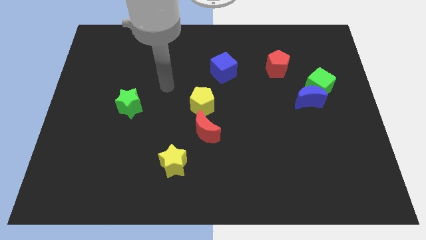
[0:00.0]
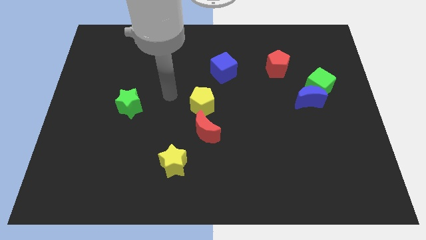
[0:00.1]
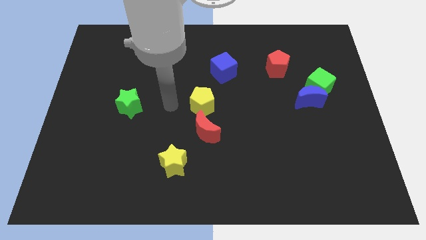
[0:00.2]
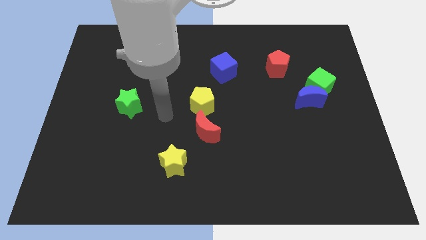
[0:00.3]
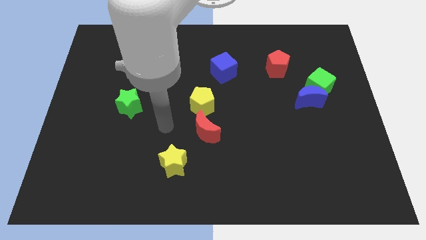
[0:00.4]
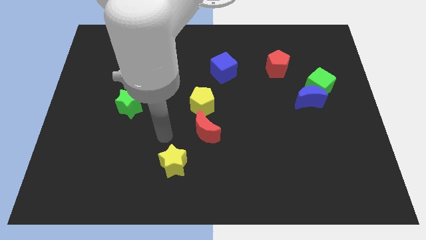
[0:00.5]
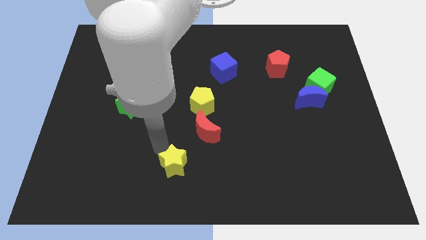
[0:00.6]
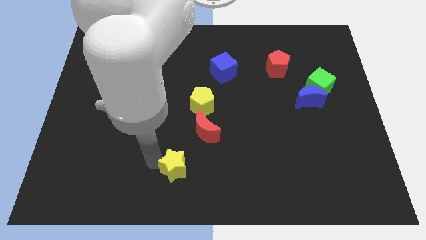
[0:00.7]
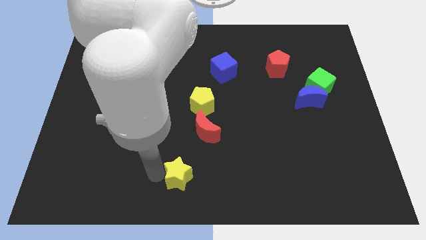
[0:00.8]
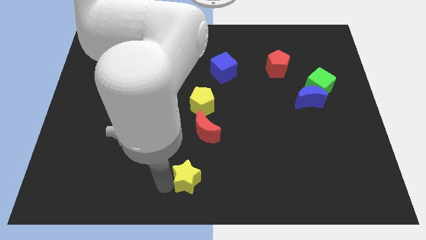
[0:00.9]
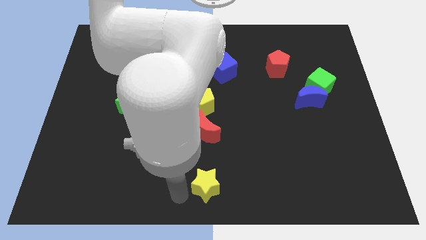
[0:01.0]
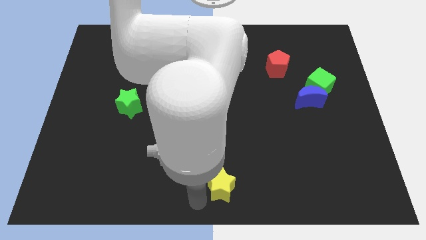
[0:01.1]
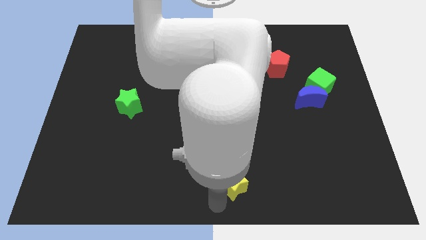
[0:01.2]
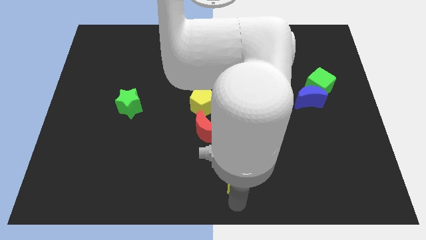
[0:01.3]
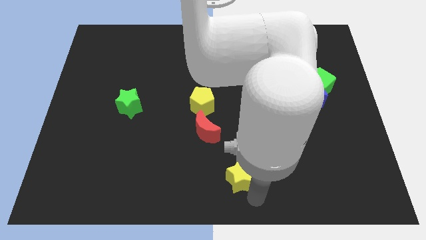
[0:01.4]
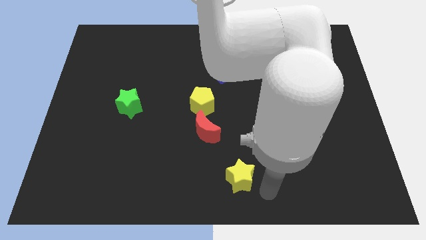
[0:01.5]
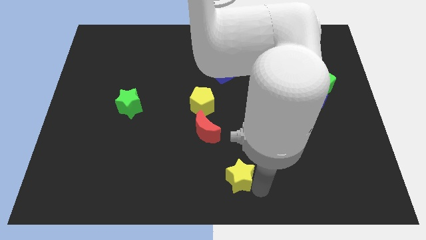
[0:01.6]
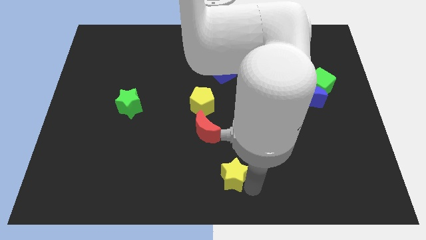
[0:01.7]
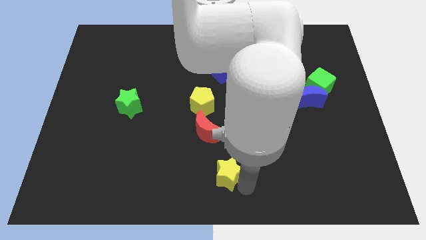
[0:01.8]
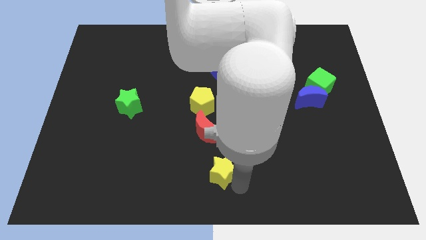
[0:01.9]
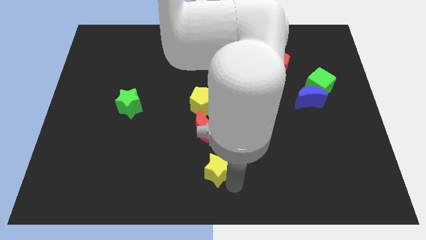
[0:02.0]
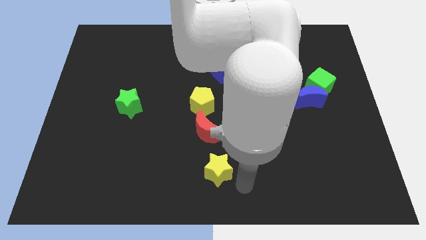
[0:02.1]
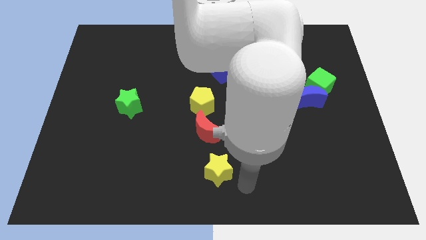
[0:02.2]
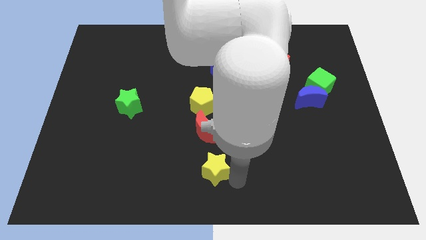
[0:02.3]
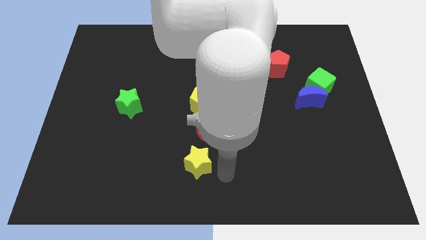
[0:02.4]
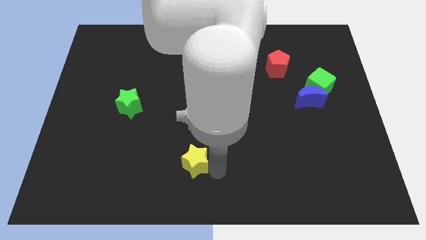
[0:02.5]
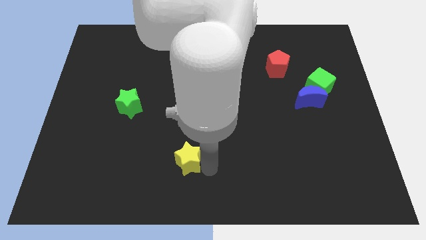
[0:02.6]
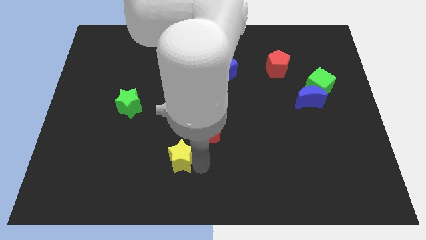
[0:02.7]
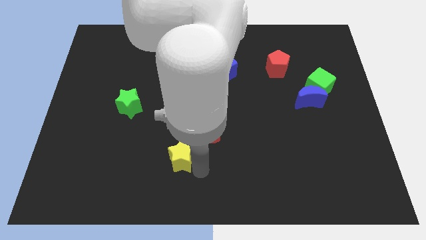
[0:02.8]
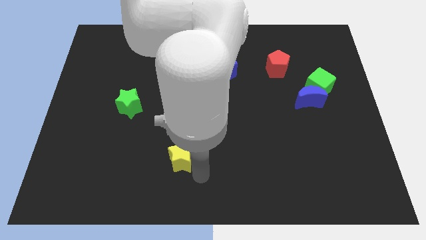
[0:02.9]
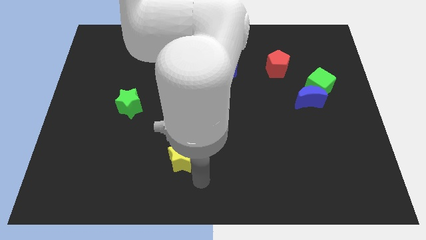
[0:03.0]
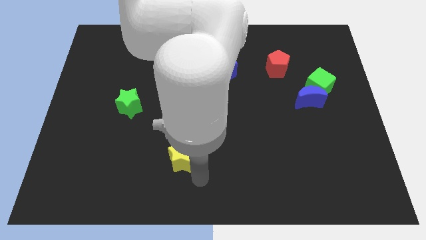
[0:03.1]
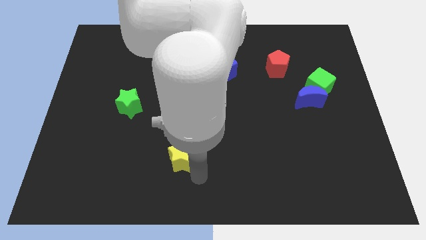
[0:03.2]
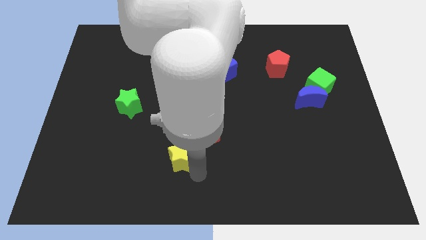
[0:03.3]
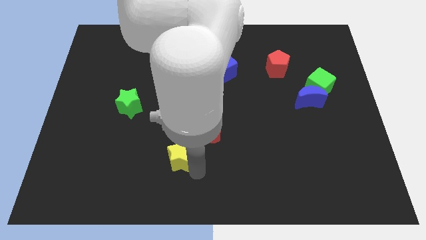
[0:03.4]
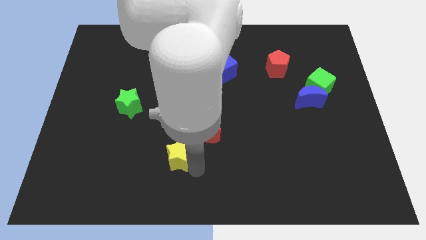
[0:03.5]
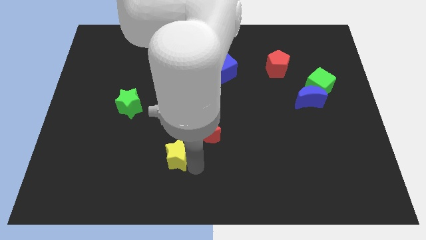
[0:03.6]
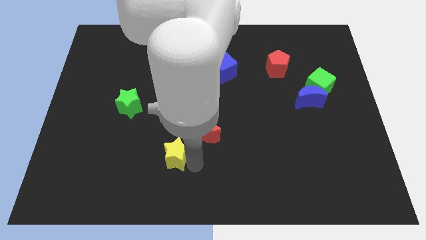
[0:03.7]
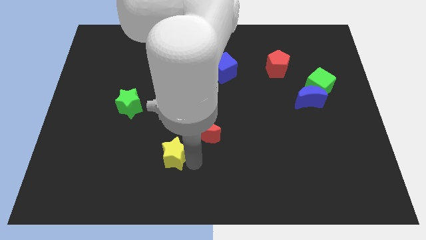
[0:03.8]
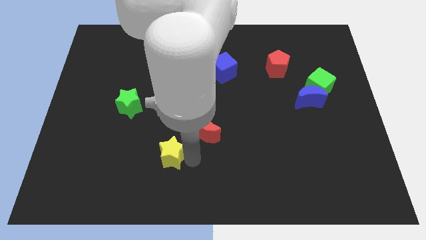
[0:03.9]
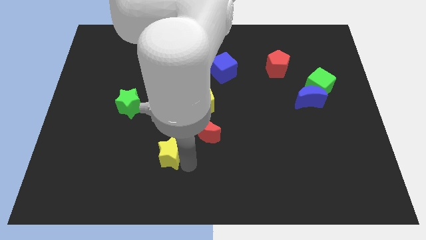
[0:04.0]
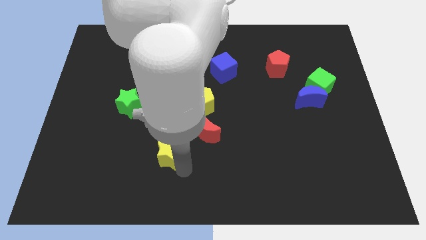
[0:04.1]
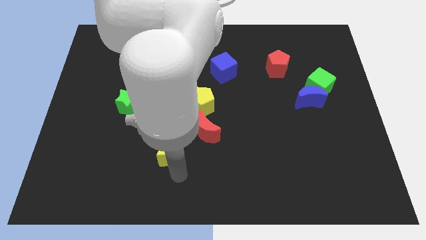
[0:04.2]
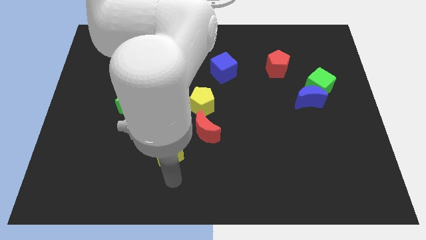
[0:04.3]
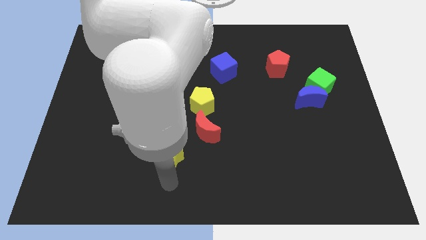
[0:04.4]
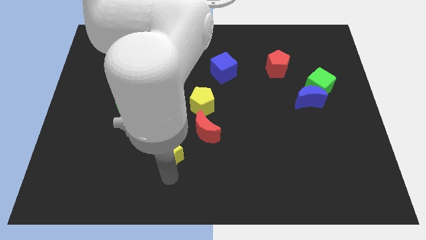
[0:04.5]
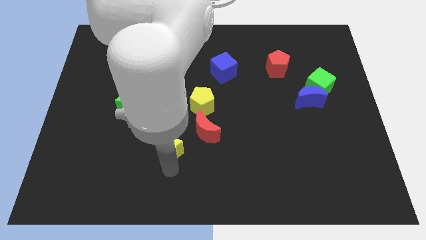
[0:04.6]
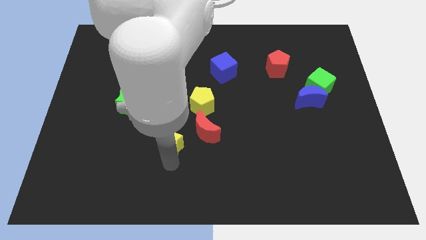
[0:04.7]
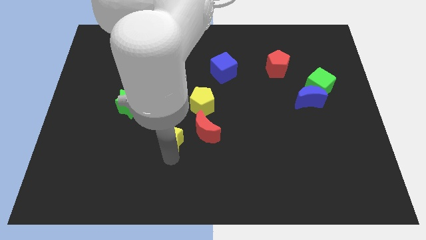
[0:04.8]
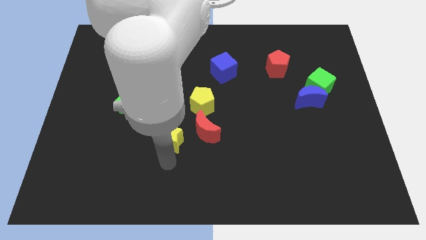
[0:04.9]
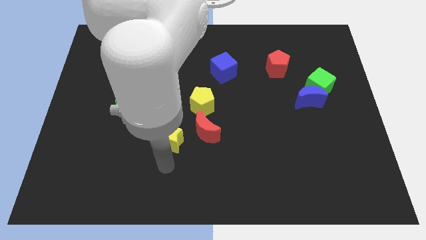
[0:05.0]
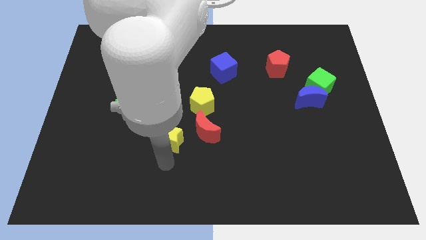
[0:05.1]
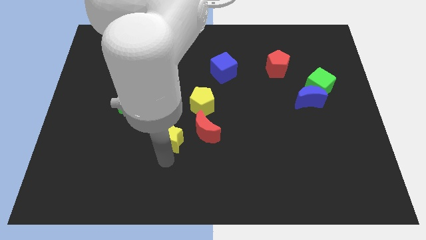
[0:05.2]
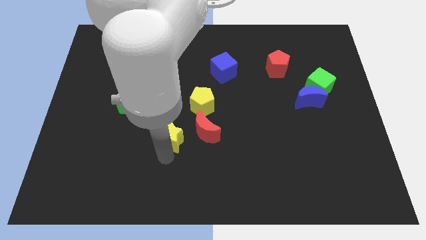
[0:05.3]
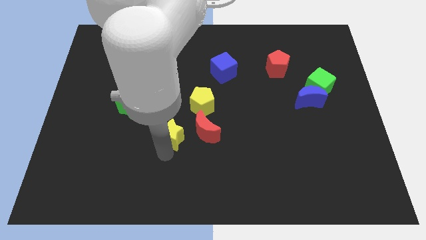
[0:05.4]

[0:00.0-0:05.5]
push the yellow star upwards slightly

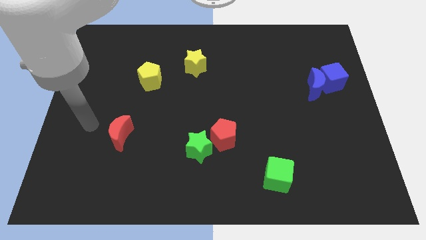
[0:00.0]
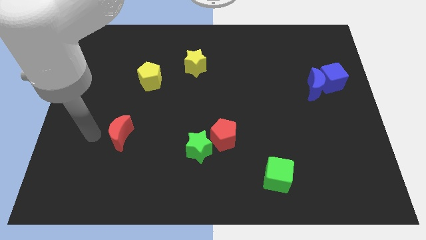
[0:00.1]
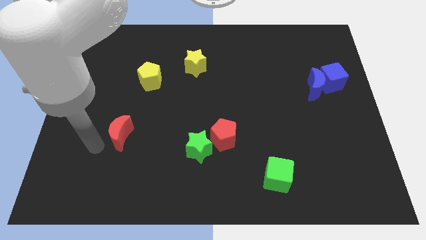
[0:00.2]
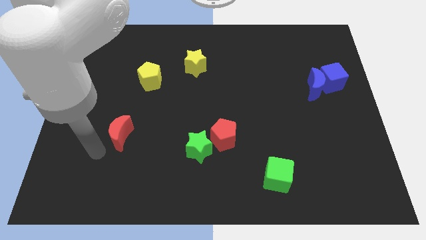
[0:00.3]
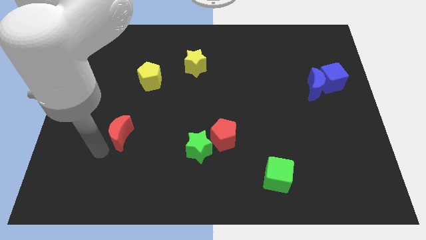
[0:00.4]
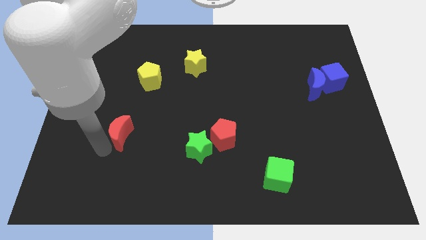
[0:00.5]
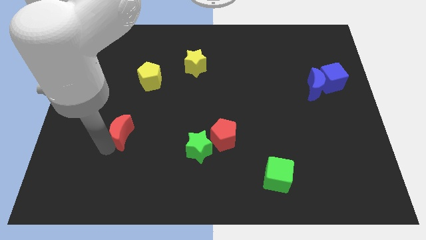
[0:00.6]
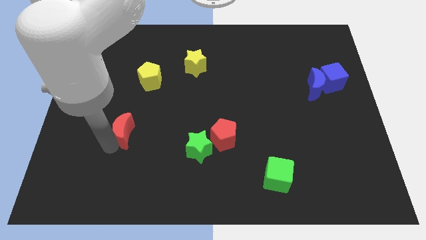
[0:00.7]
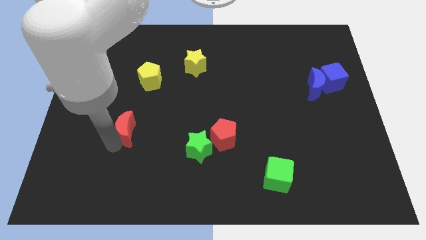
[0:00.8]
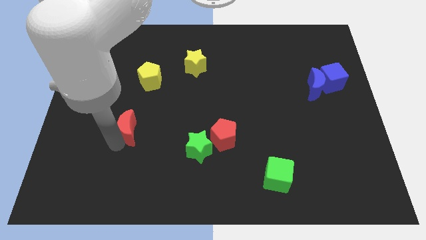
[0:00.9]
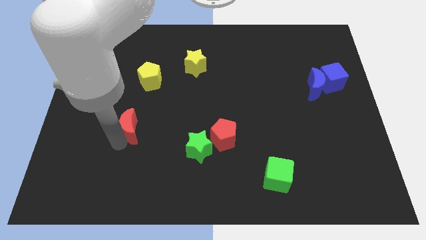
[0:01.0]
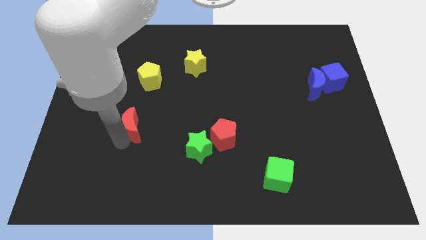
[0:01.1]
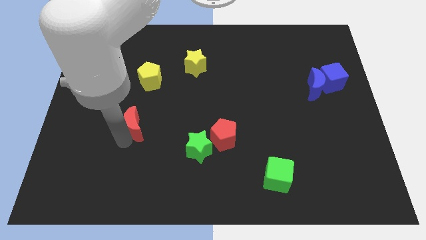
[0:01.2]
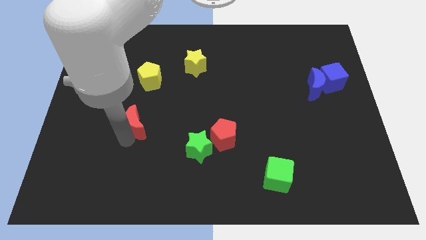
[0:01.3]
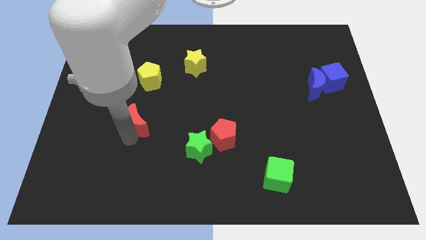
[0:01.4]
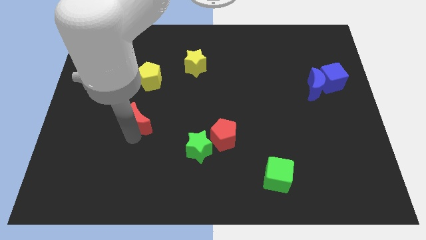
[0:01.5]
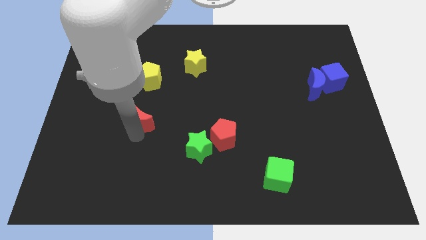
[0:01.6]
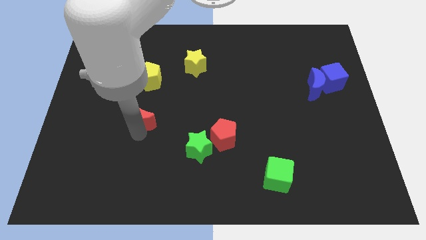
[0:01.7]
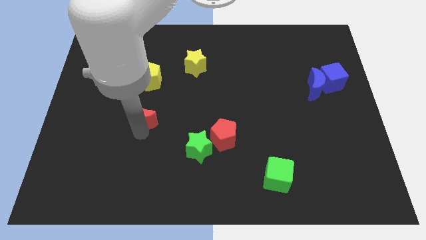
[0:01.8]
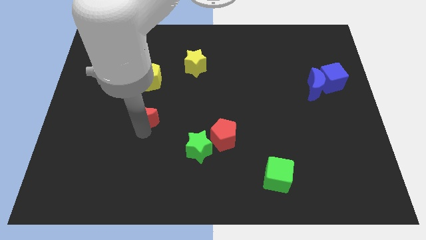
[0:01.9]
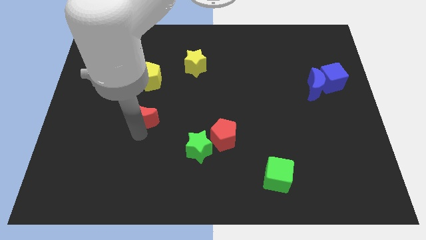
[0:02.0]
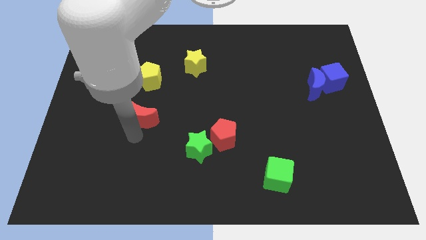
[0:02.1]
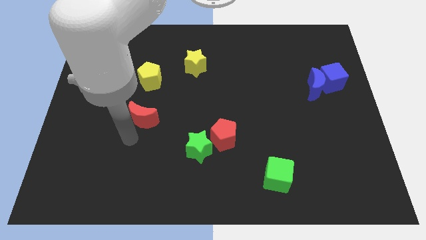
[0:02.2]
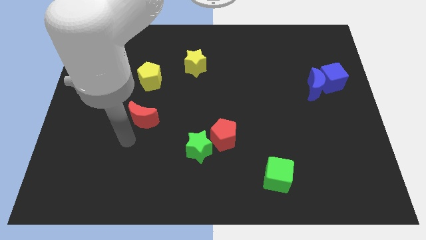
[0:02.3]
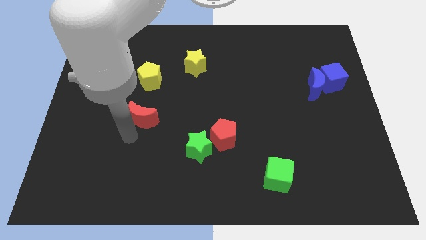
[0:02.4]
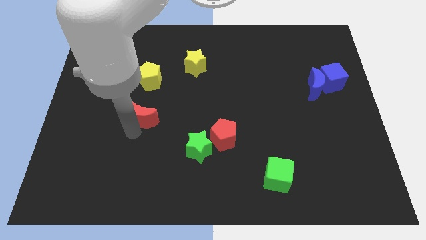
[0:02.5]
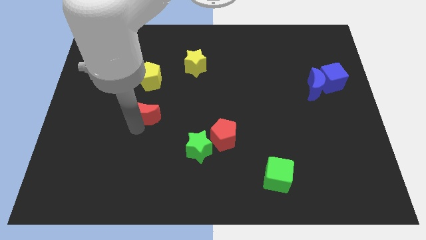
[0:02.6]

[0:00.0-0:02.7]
push the red moon diagonally upwards and right a little

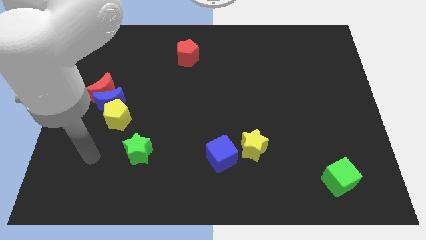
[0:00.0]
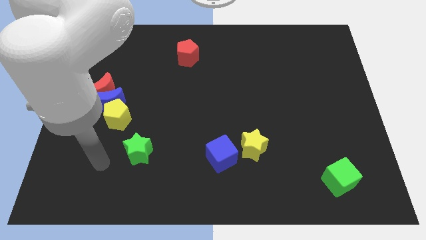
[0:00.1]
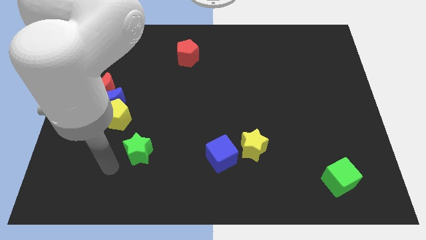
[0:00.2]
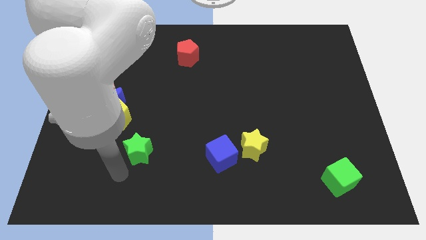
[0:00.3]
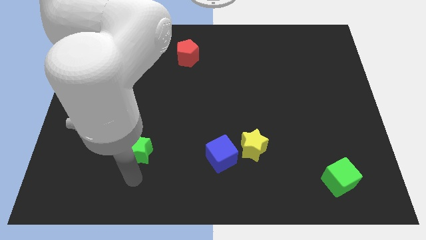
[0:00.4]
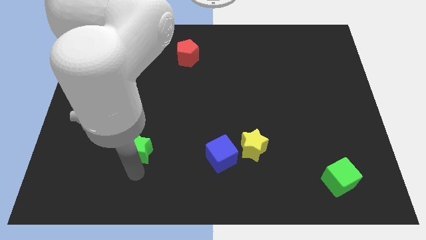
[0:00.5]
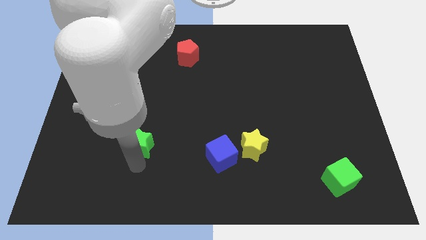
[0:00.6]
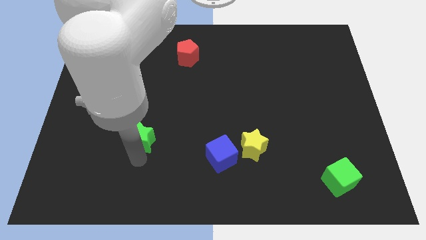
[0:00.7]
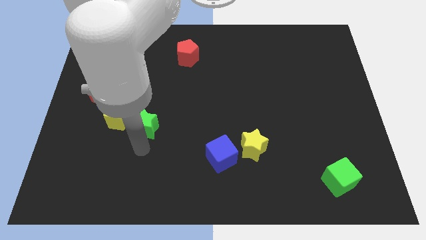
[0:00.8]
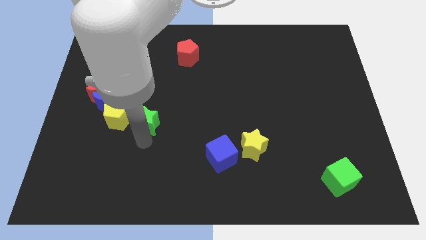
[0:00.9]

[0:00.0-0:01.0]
slide the green star up somewhat
